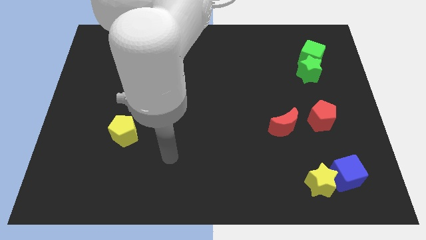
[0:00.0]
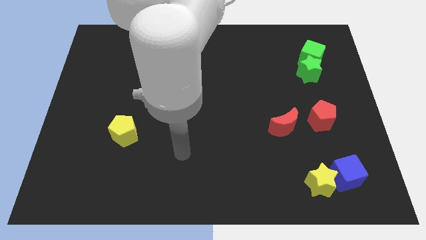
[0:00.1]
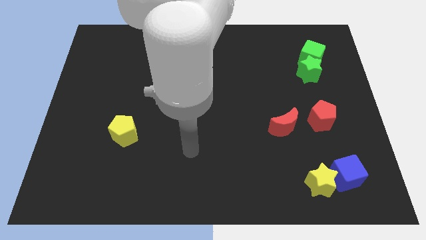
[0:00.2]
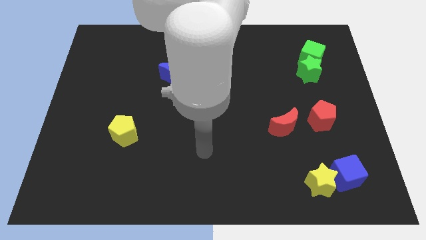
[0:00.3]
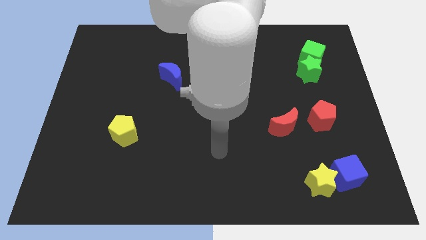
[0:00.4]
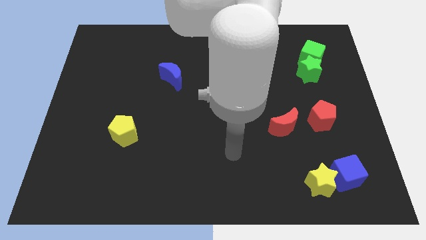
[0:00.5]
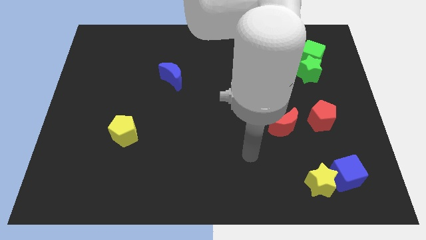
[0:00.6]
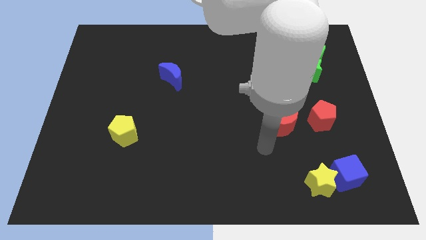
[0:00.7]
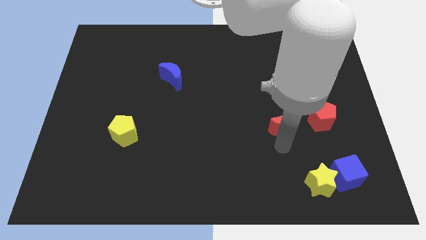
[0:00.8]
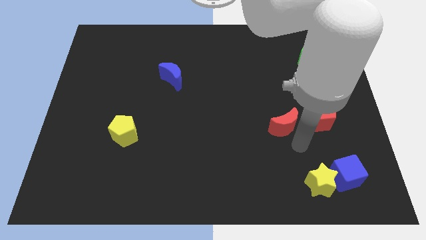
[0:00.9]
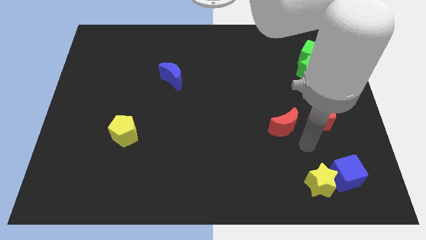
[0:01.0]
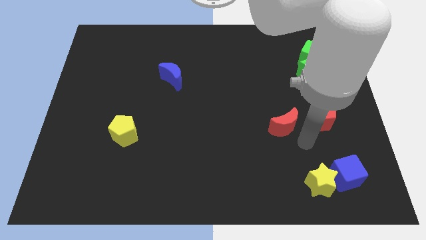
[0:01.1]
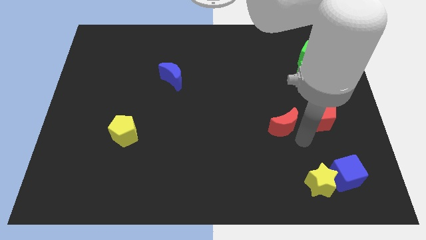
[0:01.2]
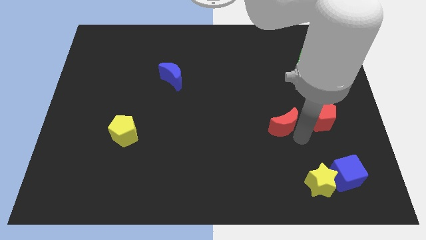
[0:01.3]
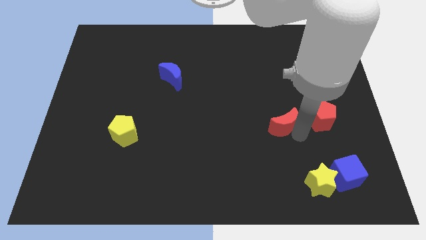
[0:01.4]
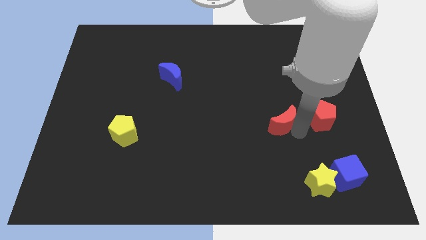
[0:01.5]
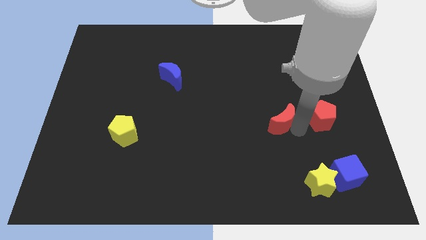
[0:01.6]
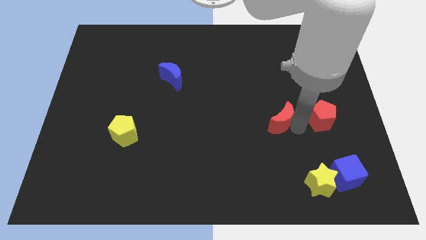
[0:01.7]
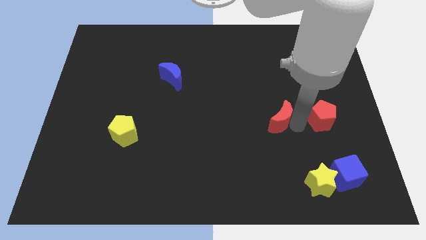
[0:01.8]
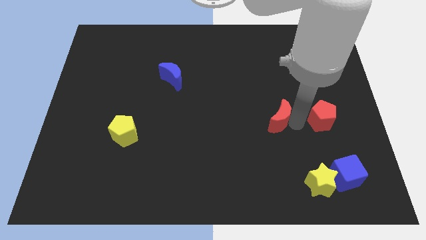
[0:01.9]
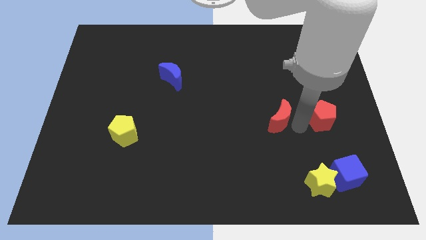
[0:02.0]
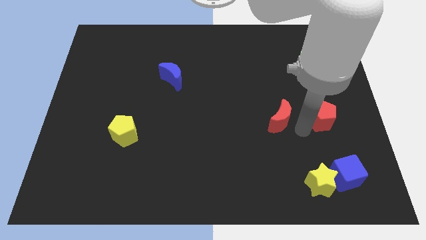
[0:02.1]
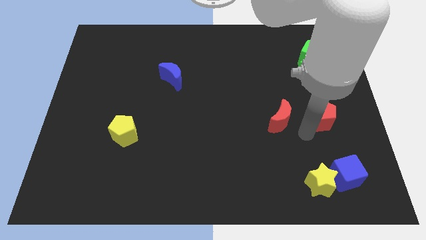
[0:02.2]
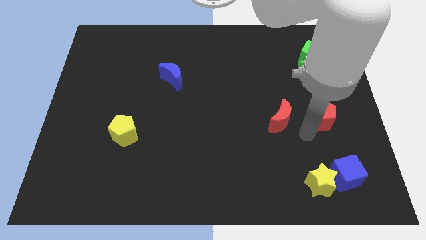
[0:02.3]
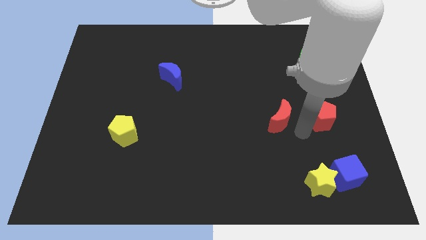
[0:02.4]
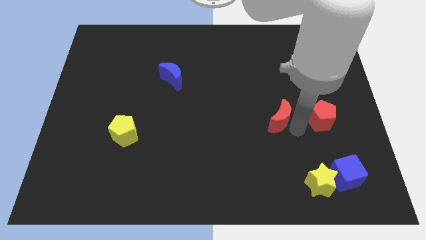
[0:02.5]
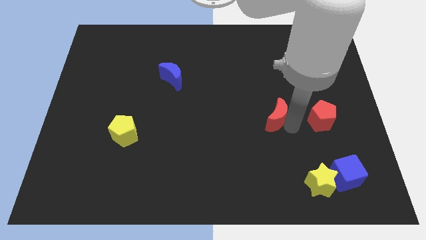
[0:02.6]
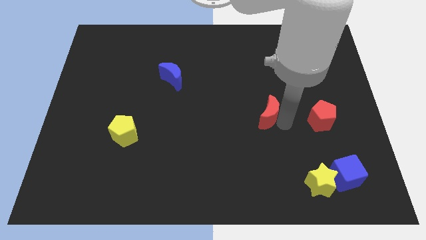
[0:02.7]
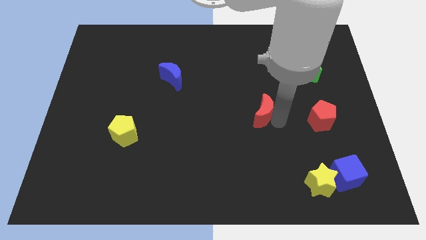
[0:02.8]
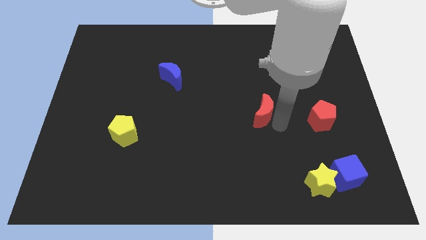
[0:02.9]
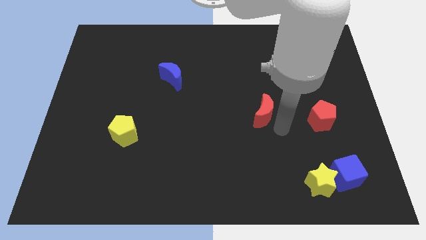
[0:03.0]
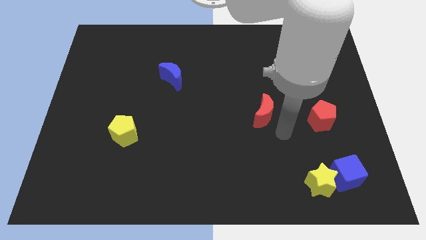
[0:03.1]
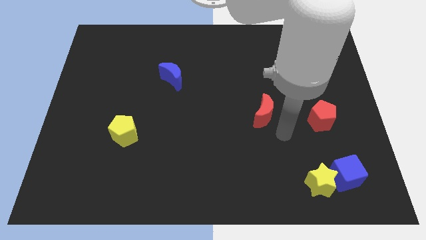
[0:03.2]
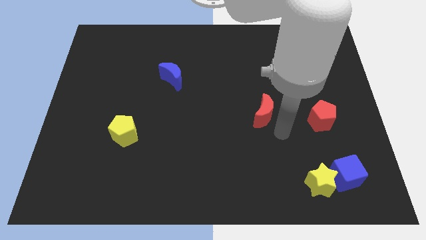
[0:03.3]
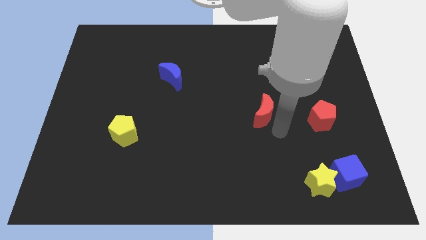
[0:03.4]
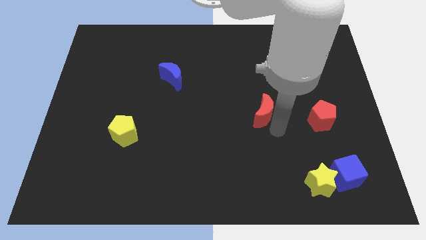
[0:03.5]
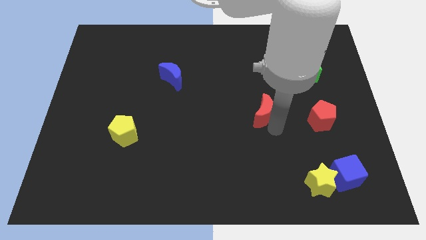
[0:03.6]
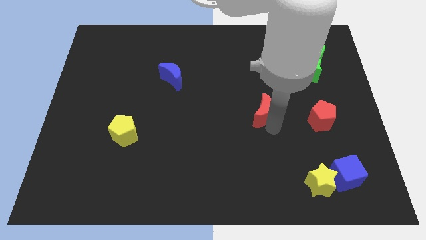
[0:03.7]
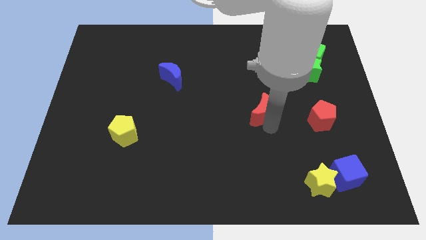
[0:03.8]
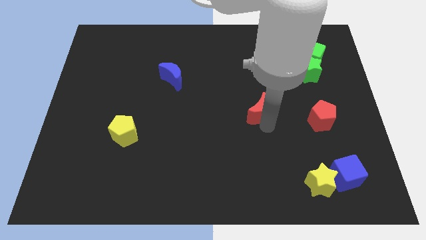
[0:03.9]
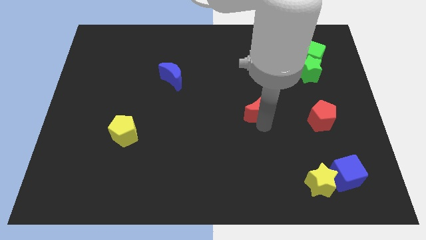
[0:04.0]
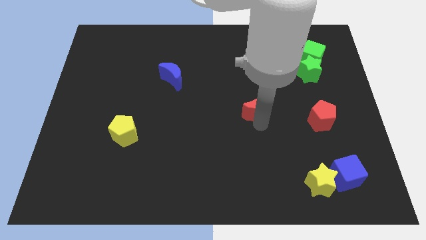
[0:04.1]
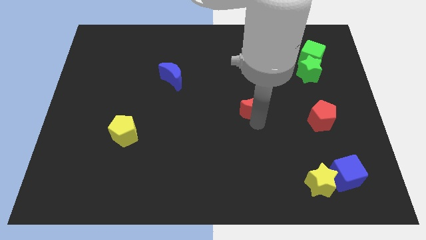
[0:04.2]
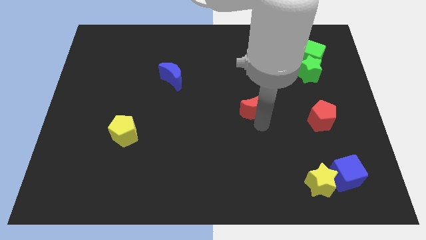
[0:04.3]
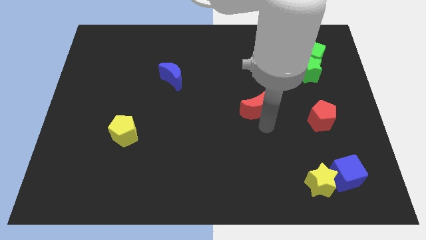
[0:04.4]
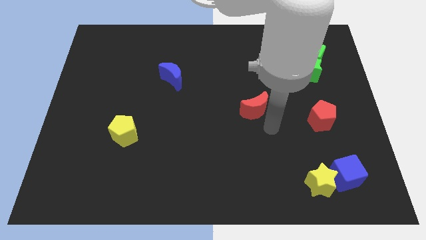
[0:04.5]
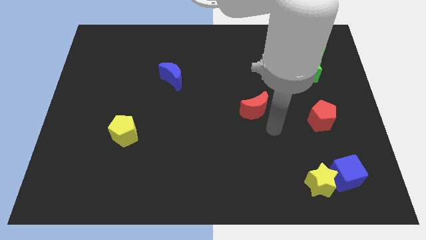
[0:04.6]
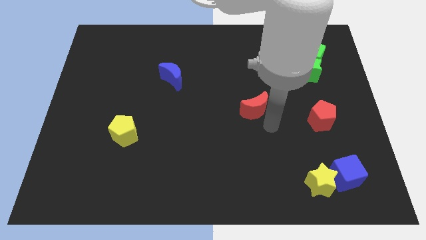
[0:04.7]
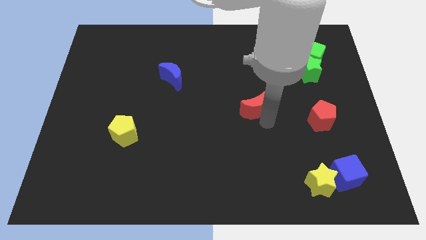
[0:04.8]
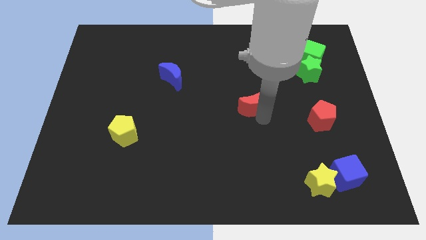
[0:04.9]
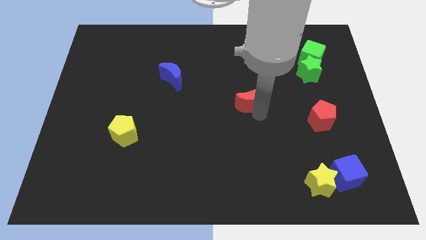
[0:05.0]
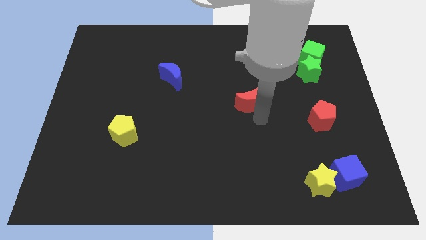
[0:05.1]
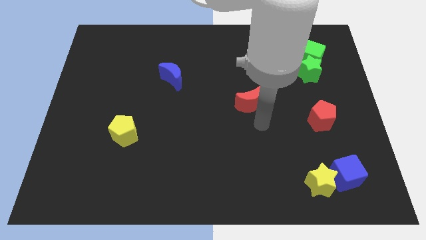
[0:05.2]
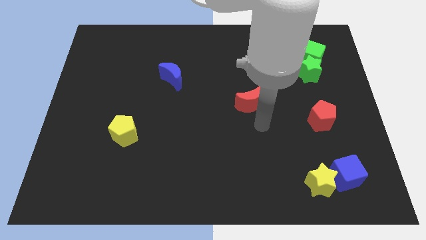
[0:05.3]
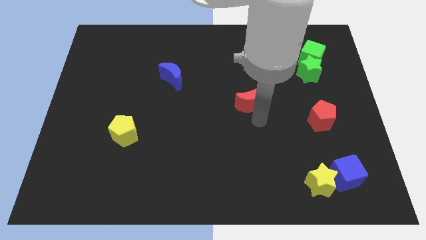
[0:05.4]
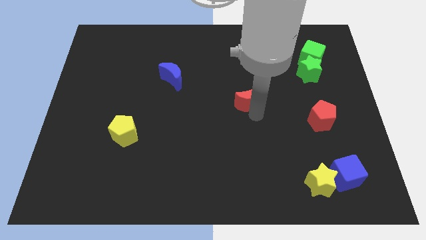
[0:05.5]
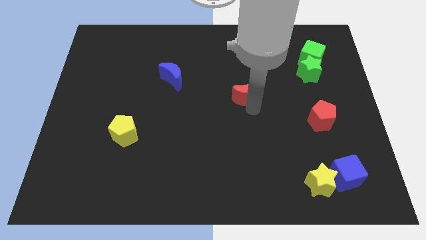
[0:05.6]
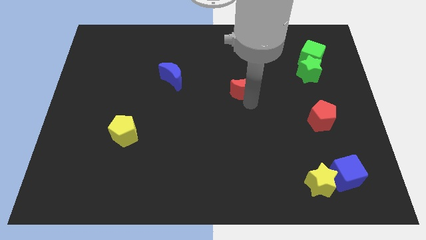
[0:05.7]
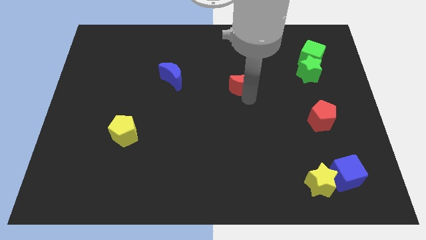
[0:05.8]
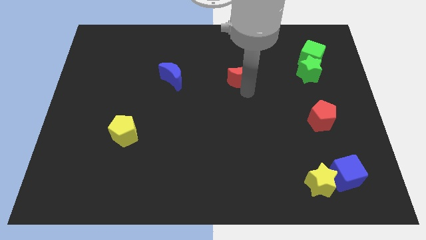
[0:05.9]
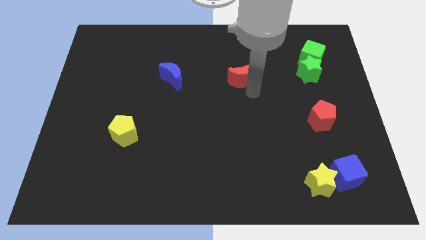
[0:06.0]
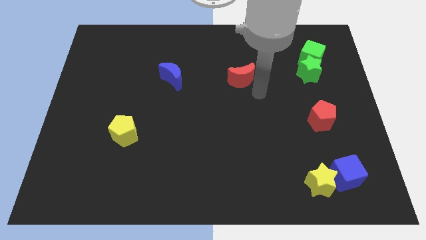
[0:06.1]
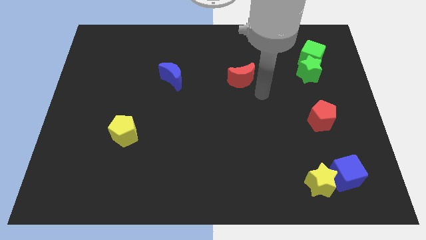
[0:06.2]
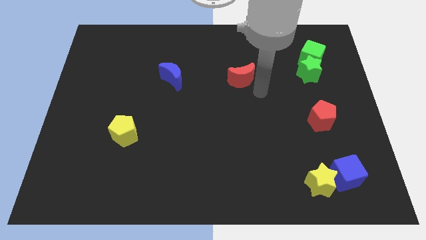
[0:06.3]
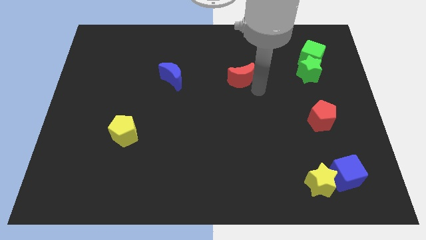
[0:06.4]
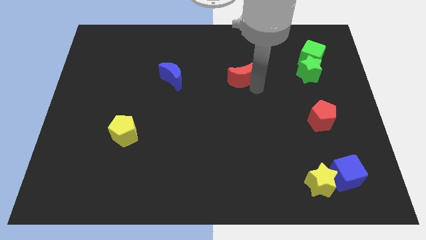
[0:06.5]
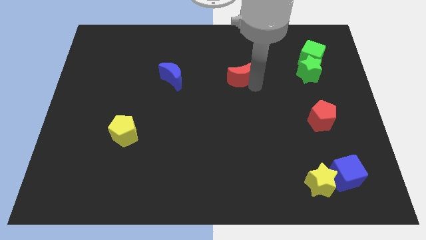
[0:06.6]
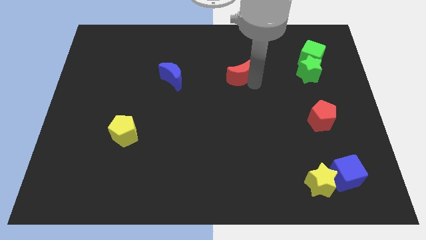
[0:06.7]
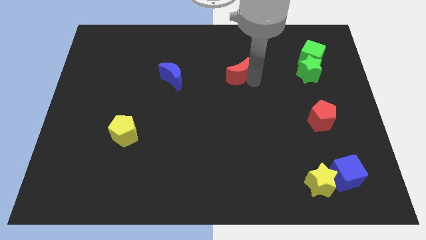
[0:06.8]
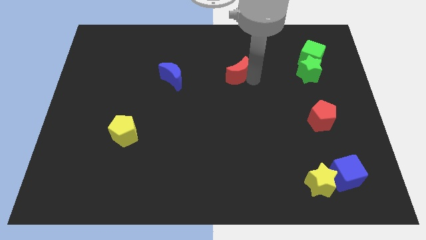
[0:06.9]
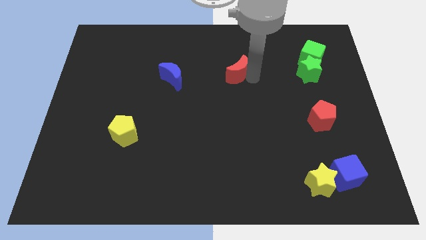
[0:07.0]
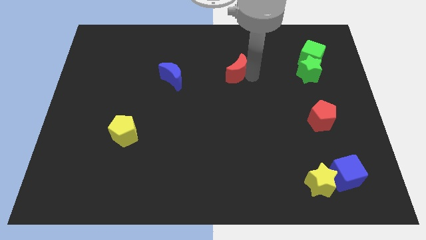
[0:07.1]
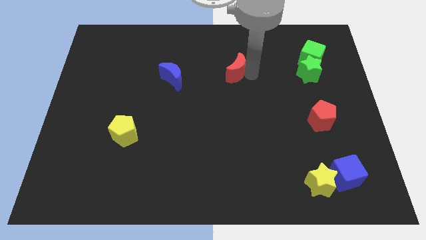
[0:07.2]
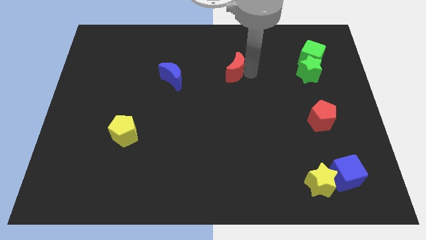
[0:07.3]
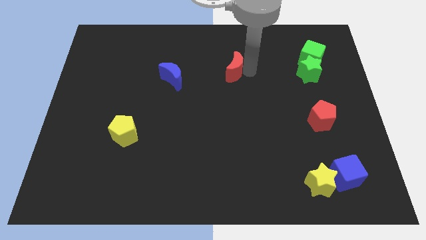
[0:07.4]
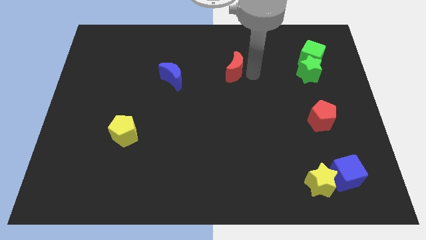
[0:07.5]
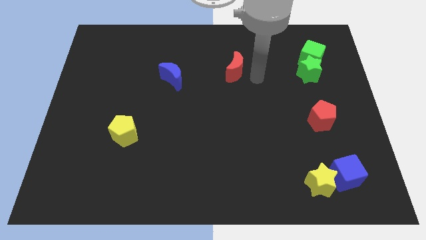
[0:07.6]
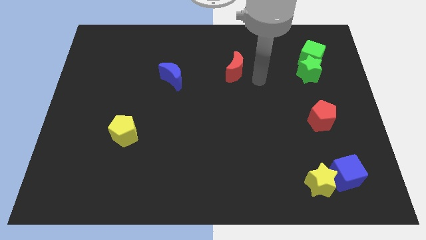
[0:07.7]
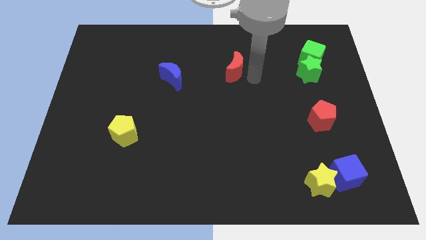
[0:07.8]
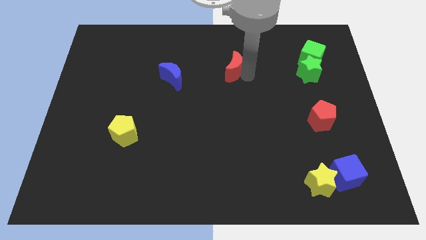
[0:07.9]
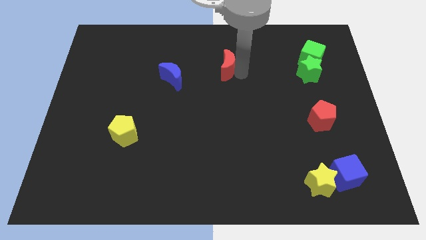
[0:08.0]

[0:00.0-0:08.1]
slide the red moon up and left diagonally
